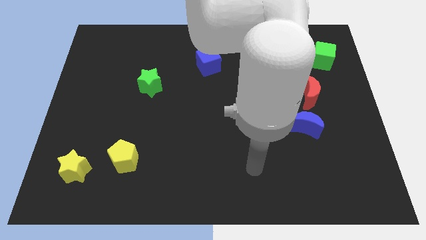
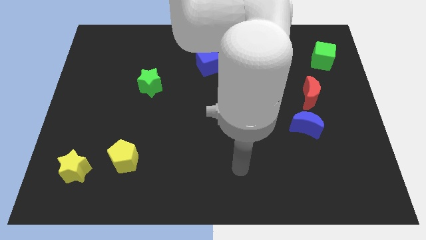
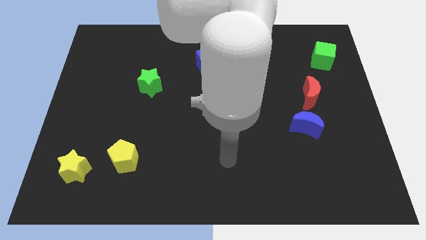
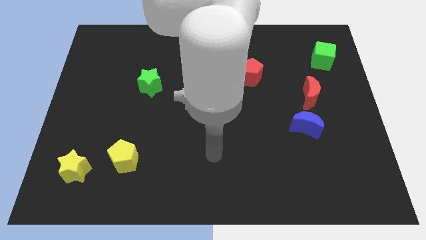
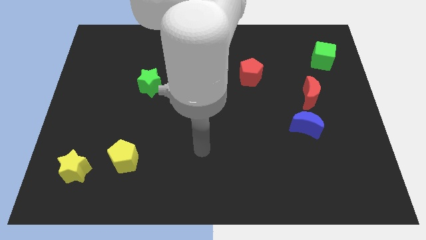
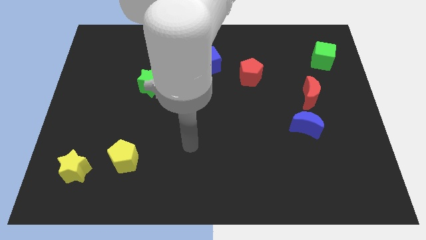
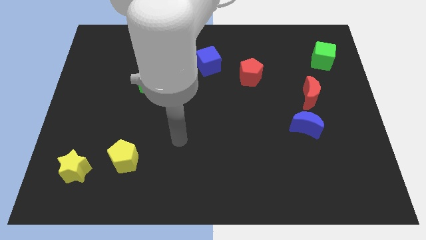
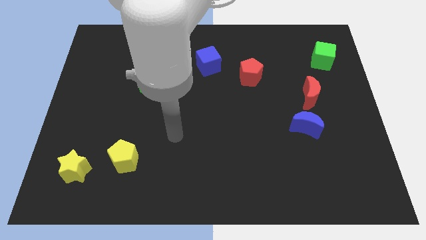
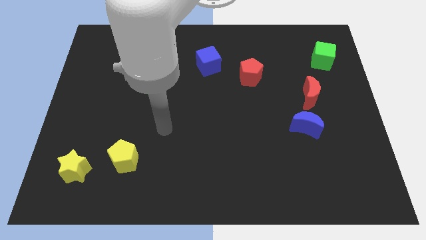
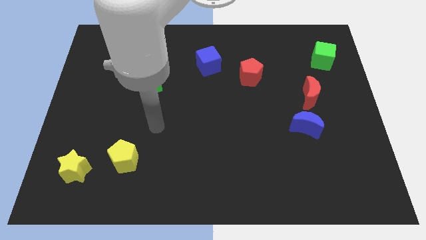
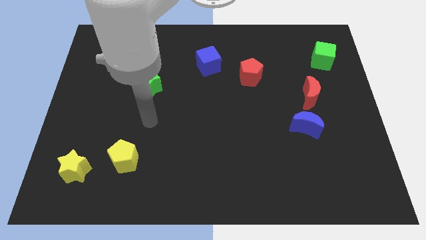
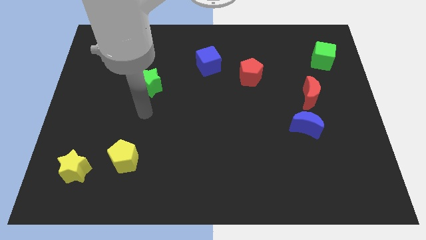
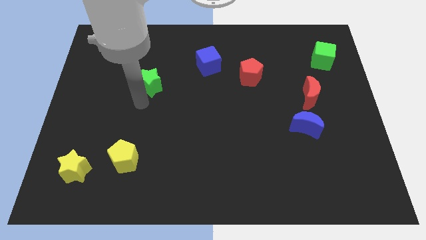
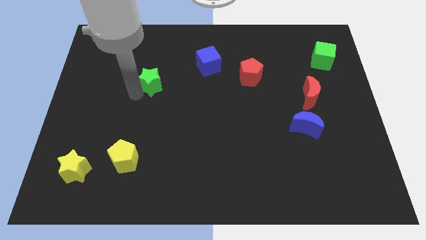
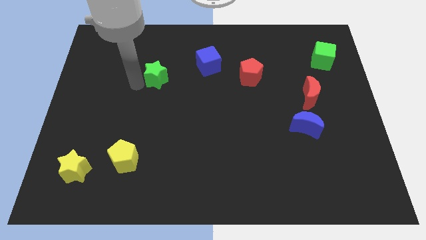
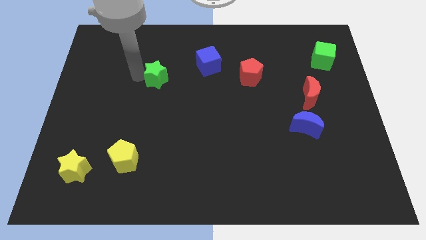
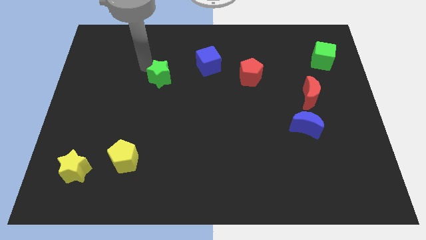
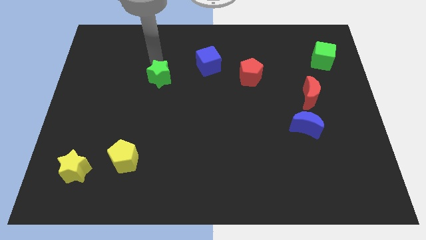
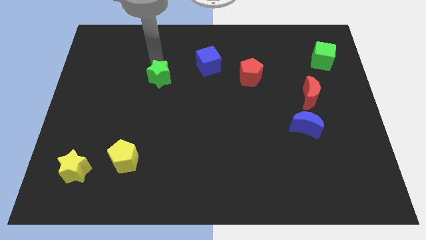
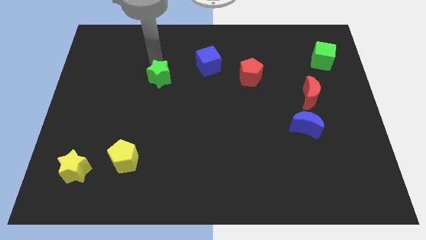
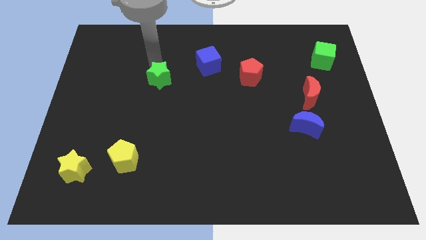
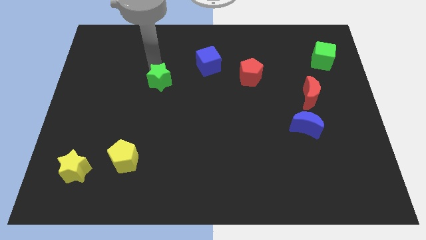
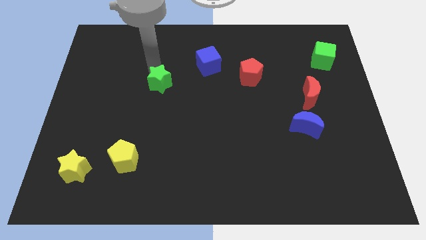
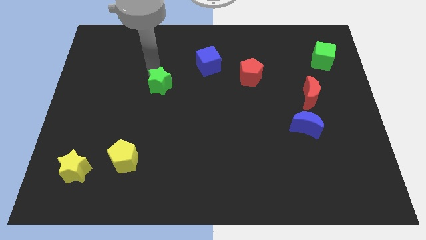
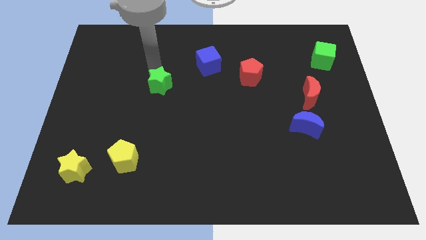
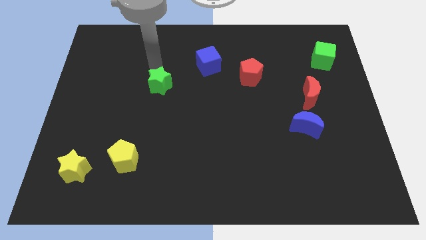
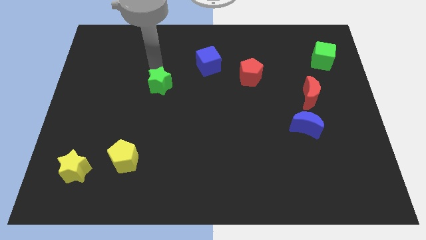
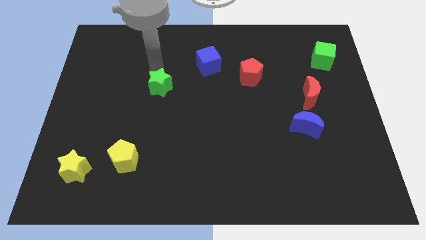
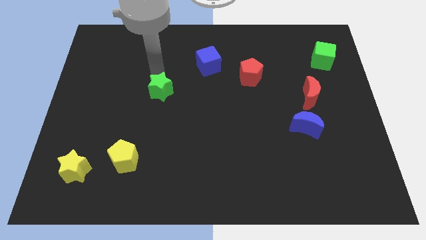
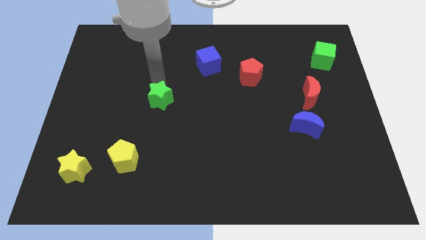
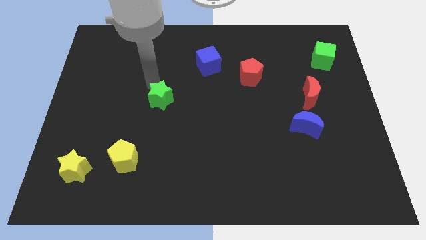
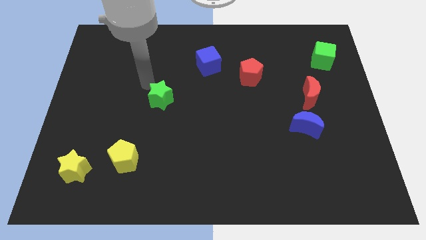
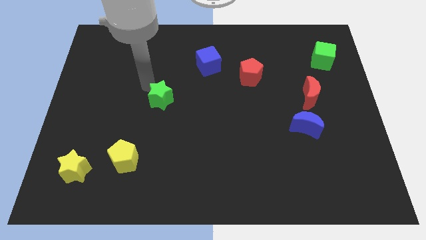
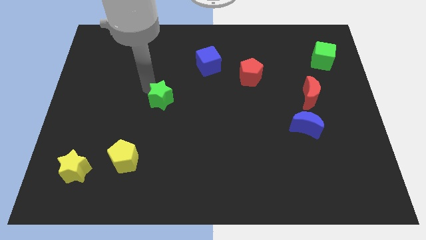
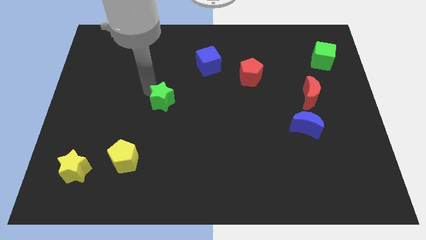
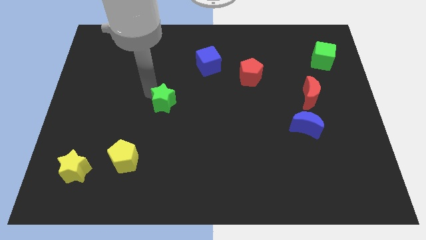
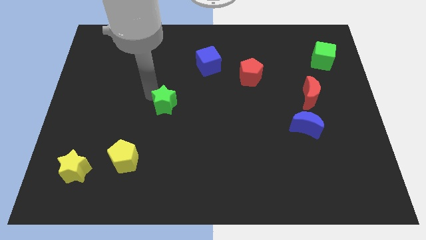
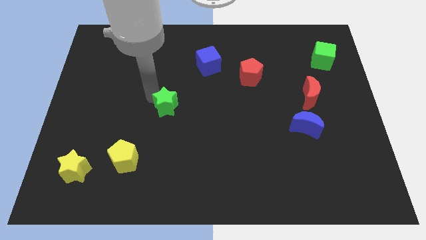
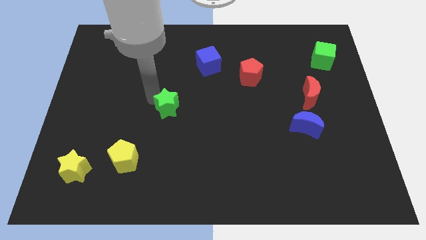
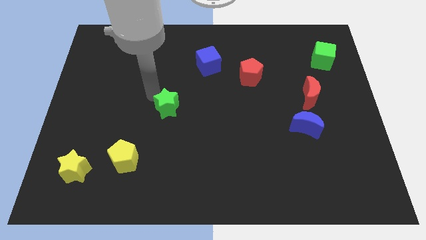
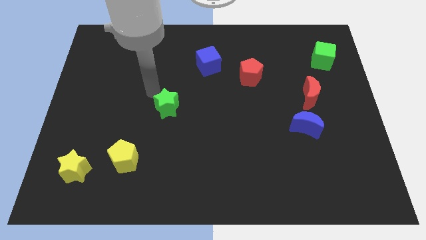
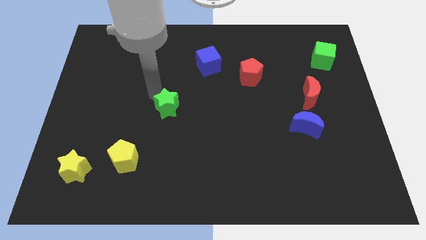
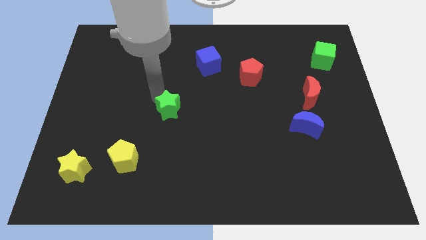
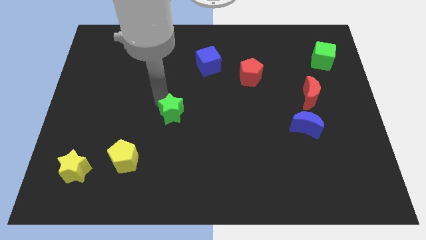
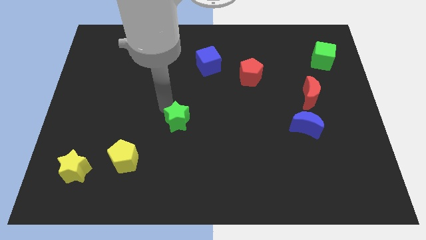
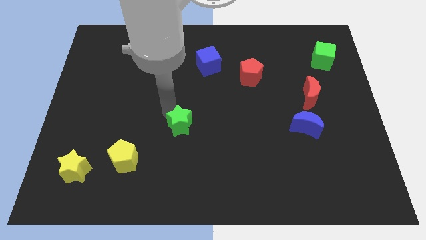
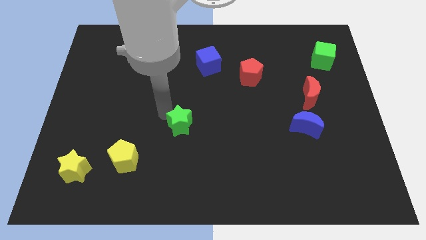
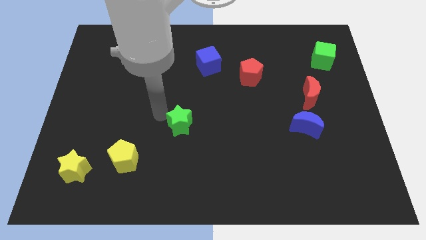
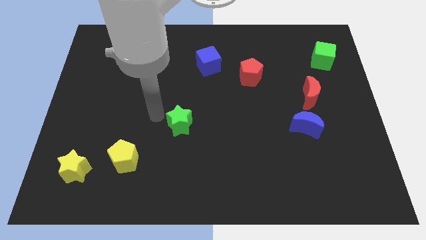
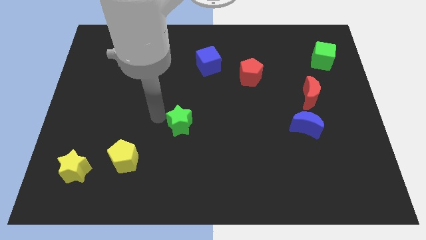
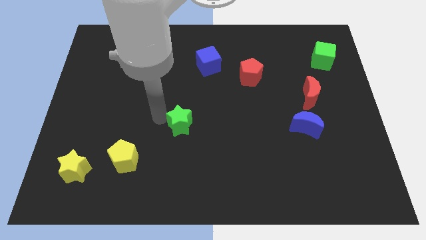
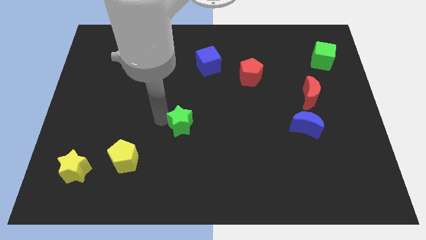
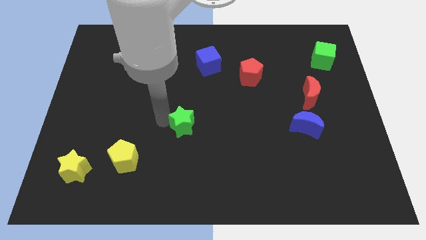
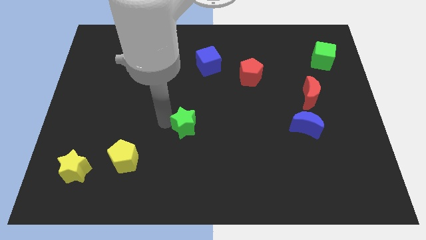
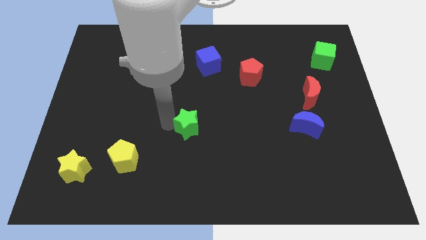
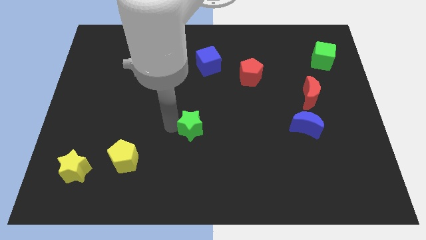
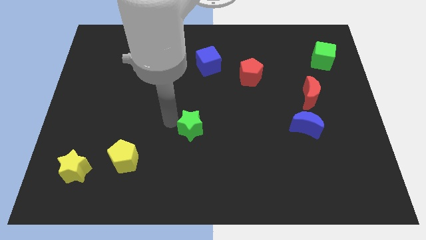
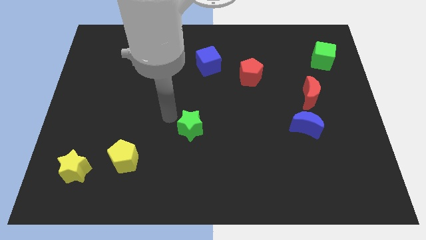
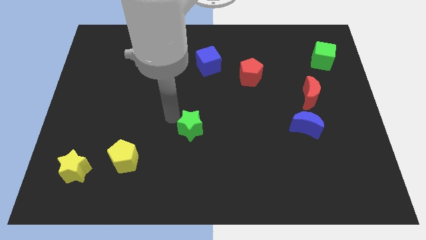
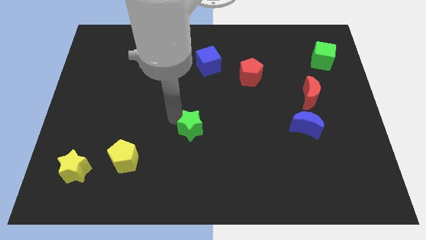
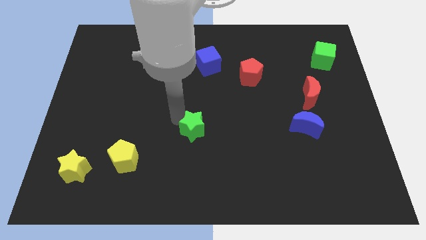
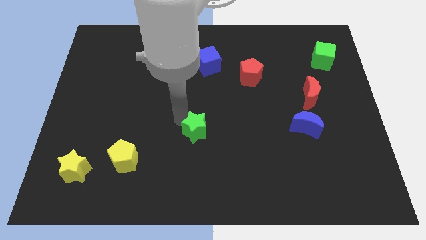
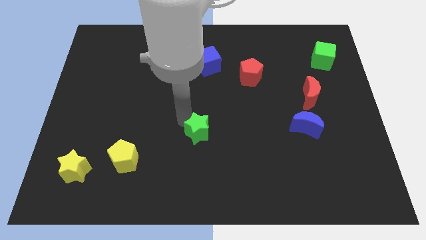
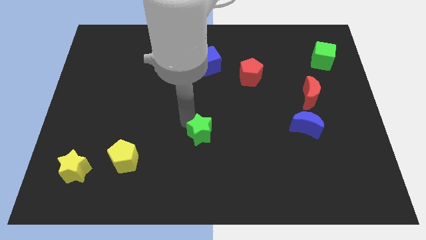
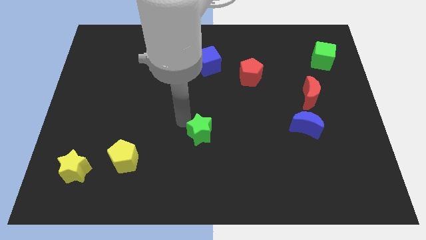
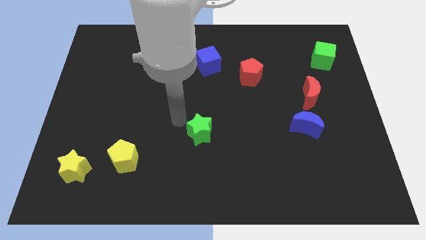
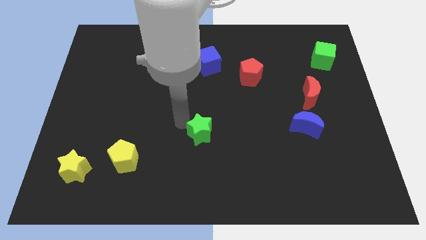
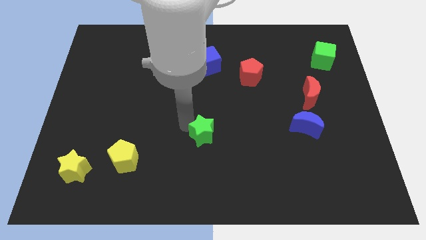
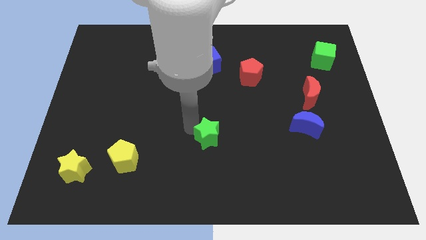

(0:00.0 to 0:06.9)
slide the green star down and to the right diagonally

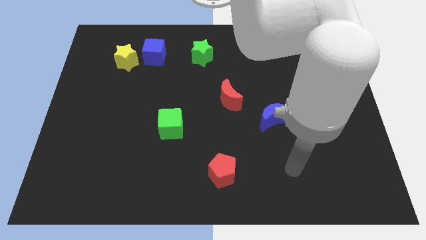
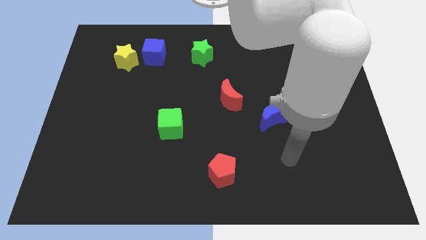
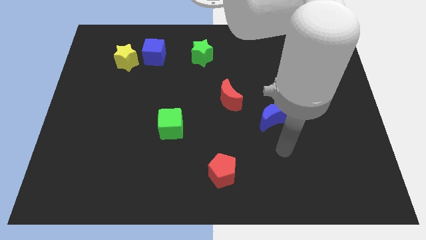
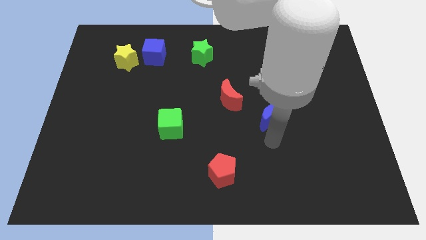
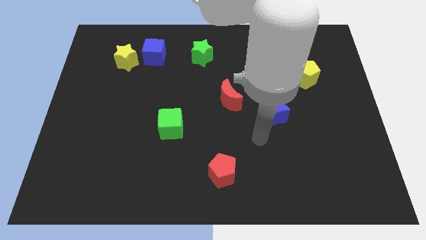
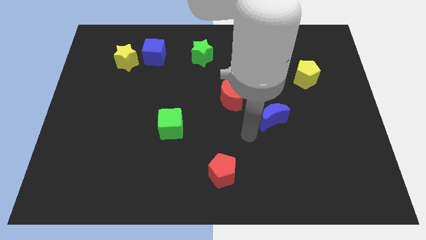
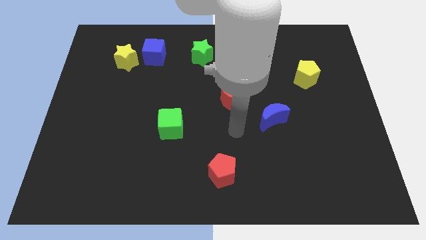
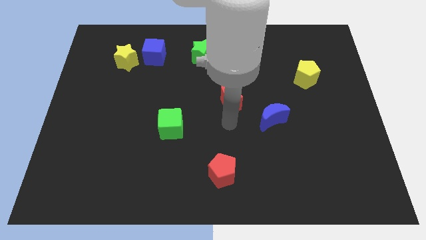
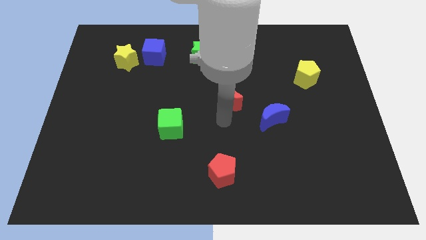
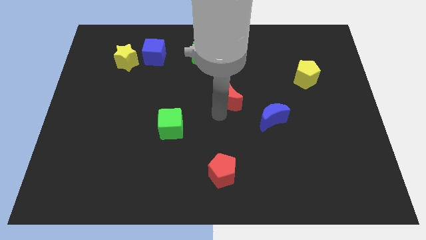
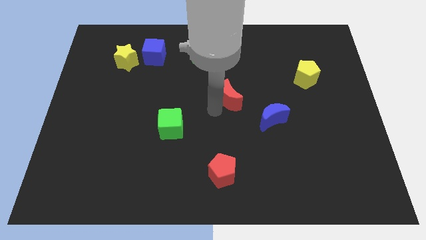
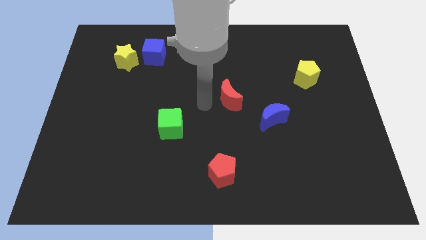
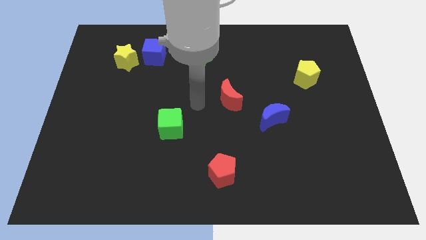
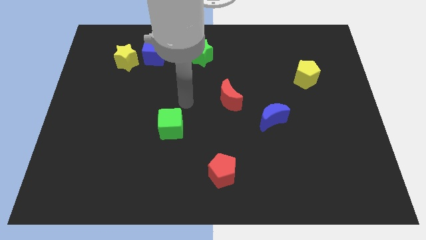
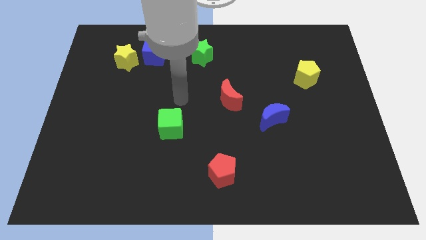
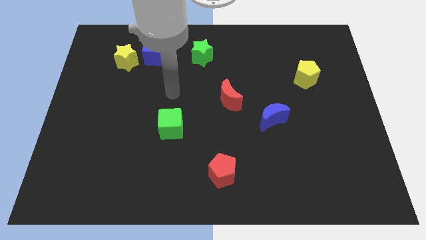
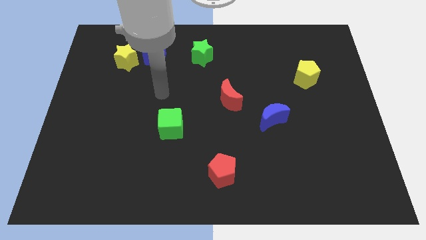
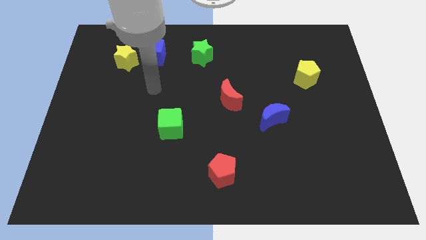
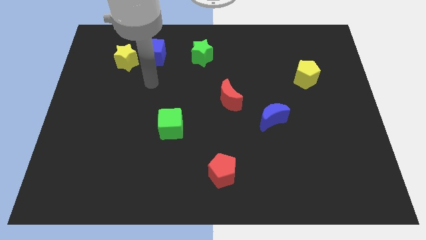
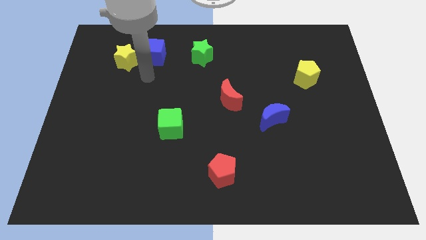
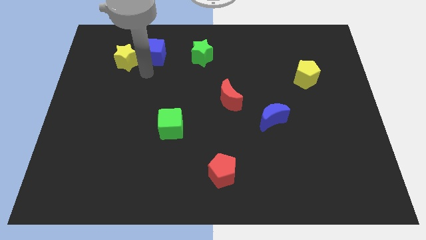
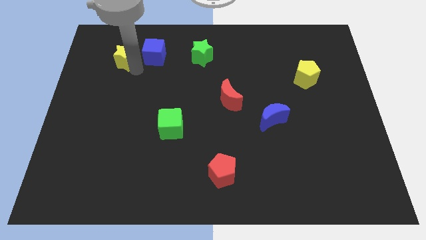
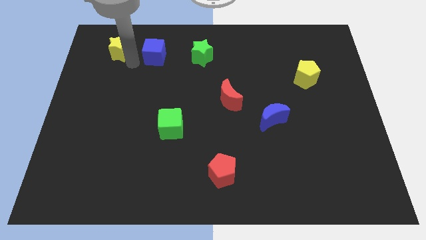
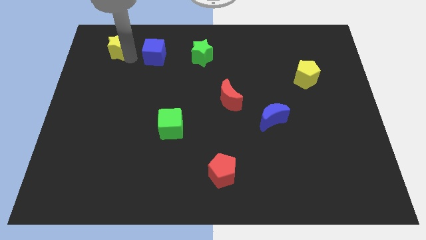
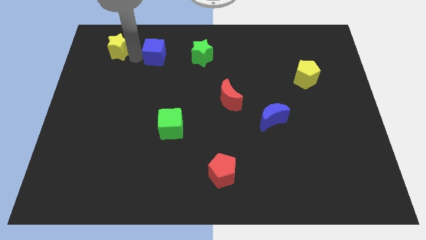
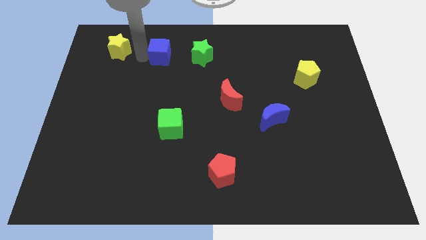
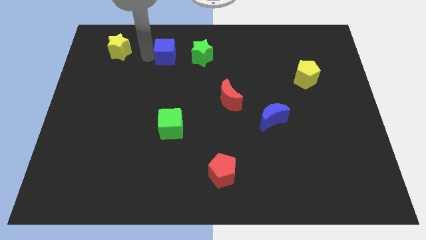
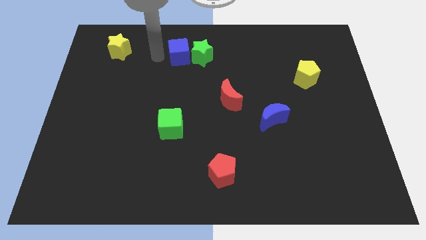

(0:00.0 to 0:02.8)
move the blue cube a little right
